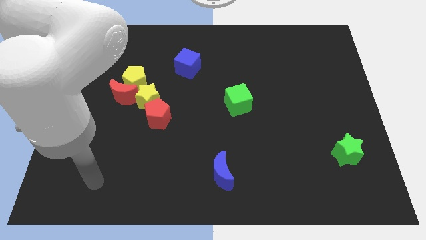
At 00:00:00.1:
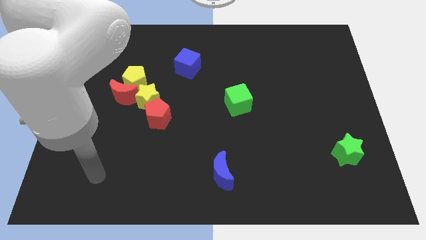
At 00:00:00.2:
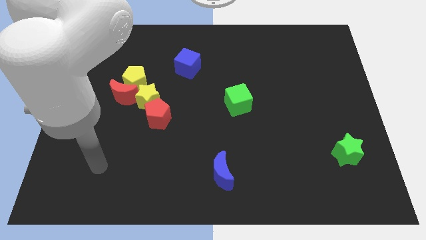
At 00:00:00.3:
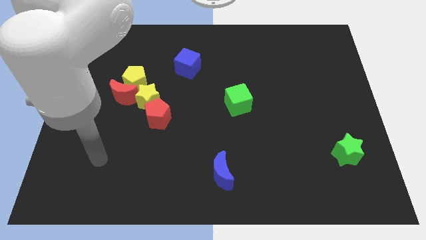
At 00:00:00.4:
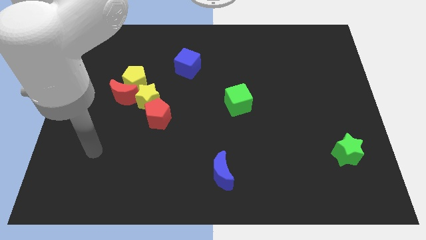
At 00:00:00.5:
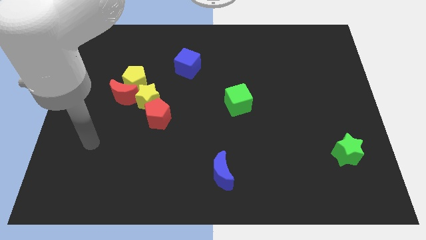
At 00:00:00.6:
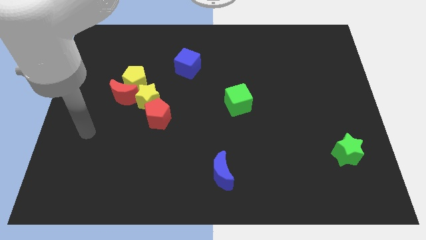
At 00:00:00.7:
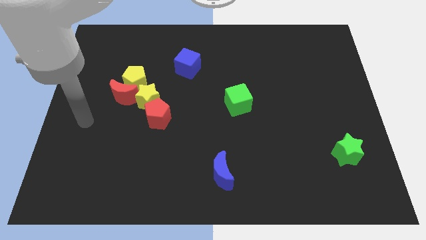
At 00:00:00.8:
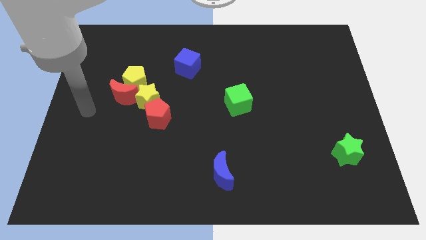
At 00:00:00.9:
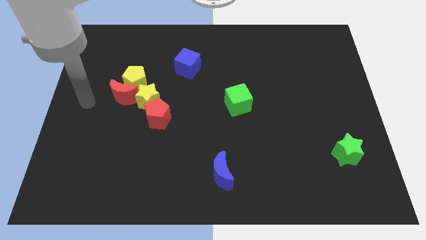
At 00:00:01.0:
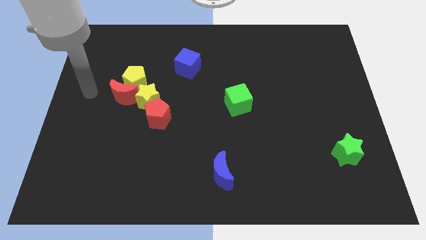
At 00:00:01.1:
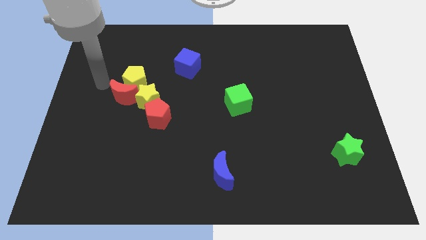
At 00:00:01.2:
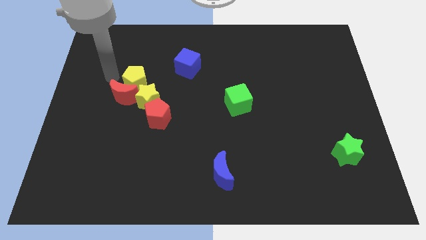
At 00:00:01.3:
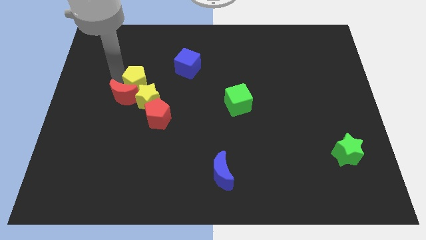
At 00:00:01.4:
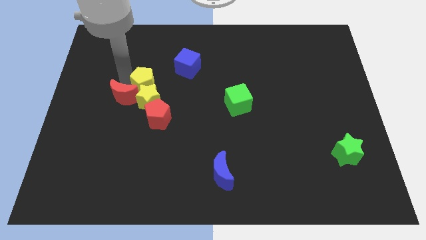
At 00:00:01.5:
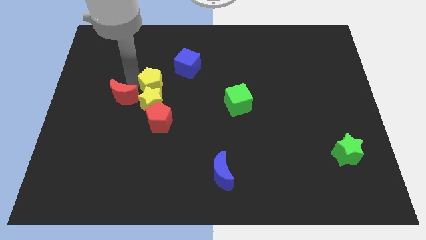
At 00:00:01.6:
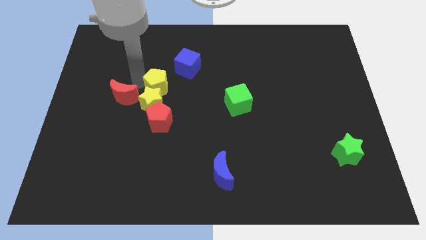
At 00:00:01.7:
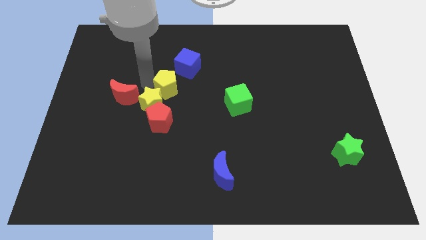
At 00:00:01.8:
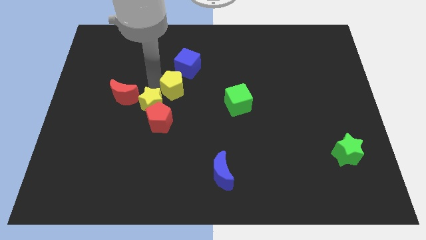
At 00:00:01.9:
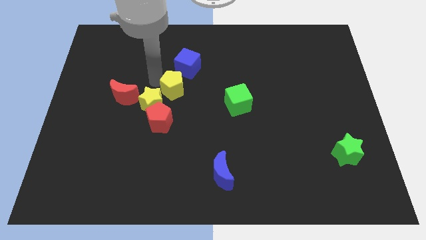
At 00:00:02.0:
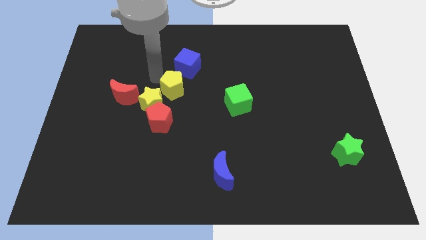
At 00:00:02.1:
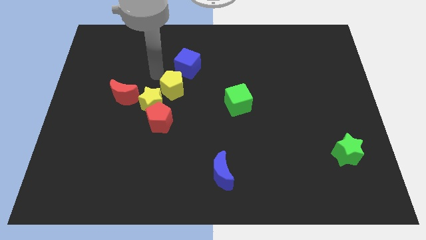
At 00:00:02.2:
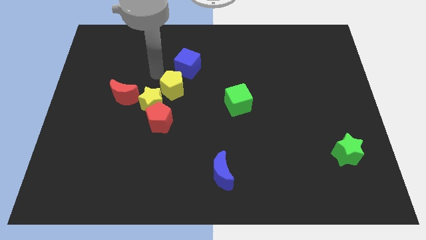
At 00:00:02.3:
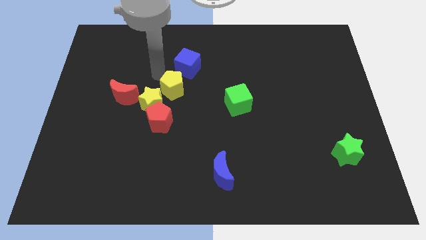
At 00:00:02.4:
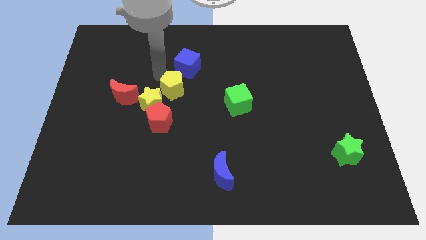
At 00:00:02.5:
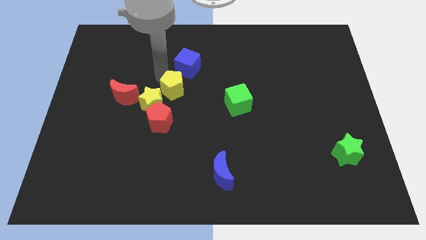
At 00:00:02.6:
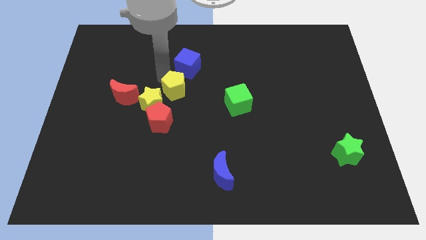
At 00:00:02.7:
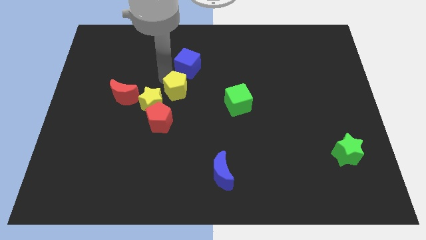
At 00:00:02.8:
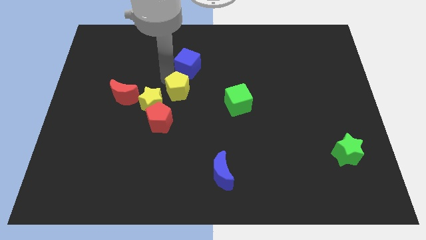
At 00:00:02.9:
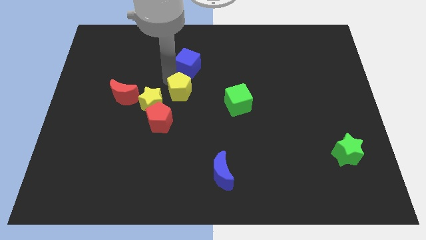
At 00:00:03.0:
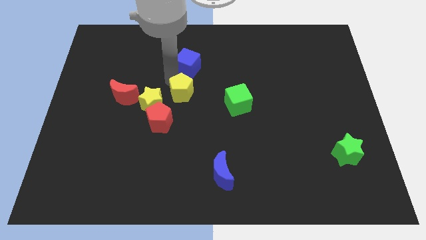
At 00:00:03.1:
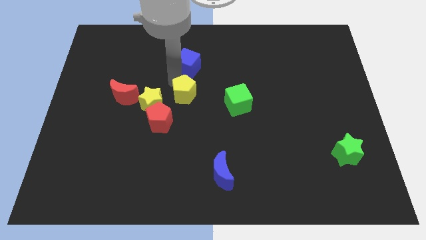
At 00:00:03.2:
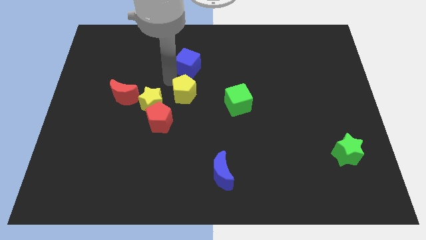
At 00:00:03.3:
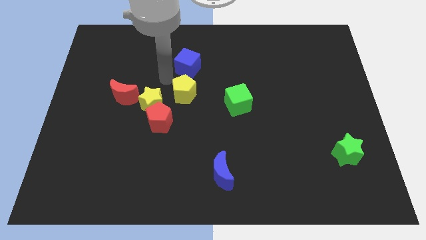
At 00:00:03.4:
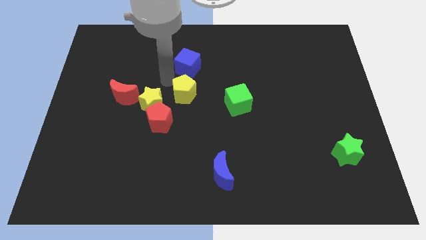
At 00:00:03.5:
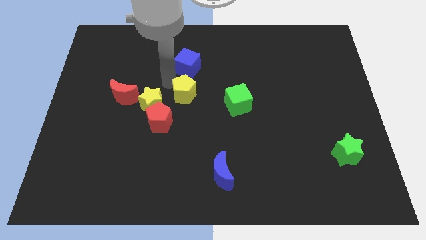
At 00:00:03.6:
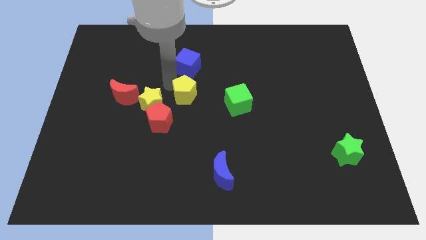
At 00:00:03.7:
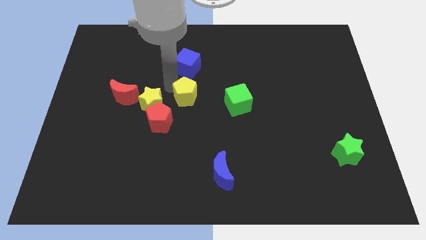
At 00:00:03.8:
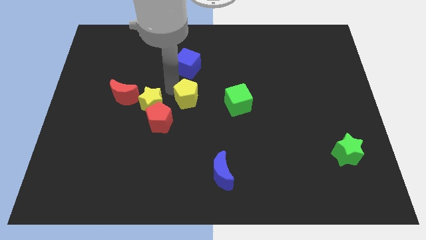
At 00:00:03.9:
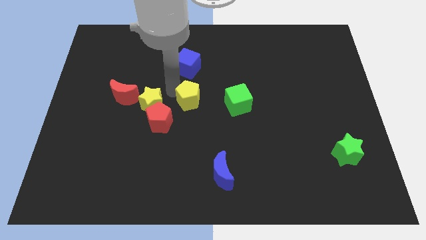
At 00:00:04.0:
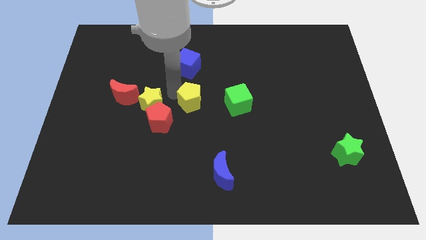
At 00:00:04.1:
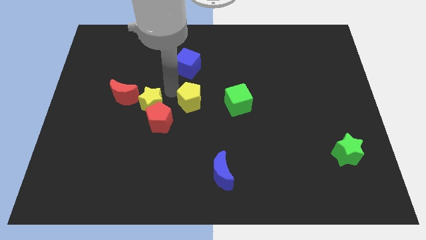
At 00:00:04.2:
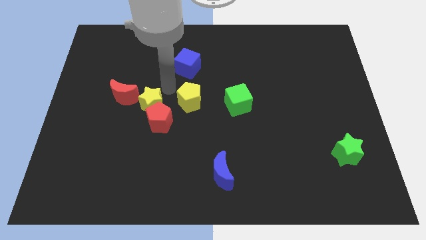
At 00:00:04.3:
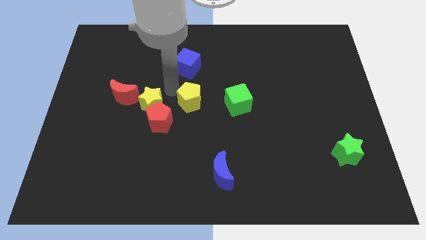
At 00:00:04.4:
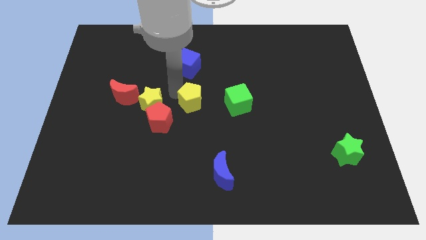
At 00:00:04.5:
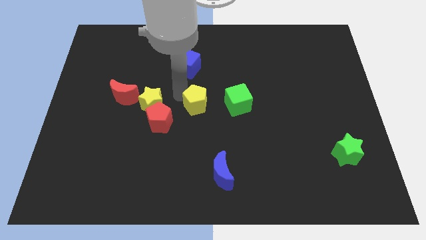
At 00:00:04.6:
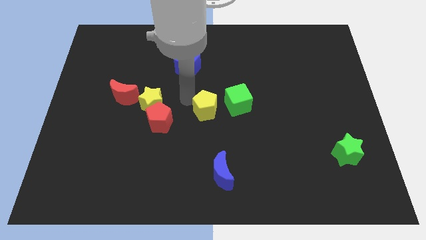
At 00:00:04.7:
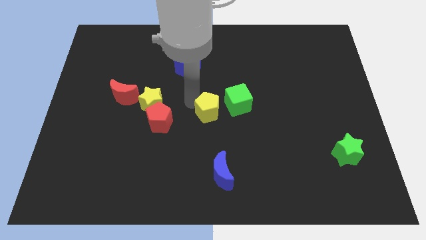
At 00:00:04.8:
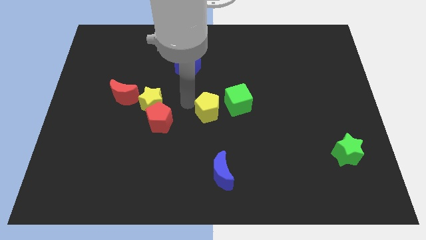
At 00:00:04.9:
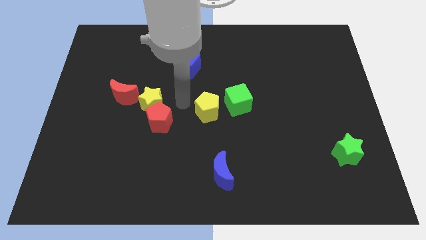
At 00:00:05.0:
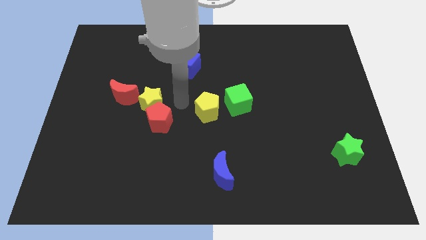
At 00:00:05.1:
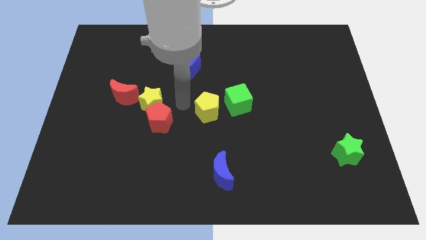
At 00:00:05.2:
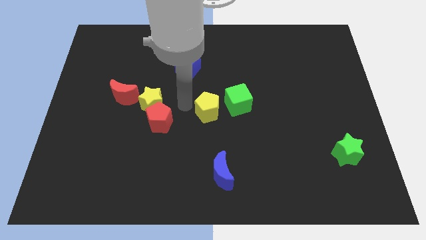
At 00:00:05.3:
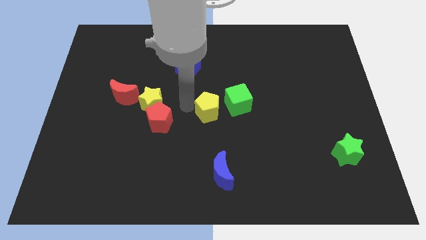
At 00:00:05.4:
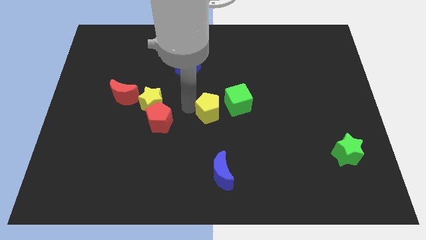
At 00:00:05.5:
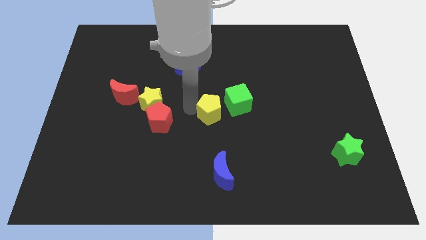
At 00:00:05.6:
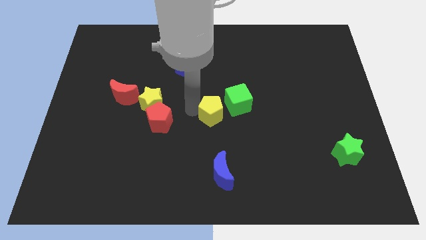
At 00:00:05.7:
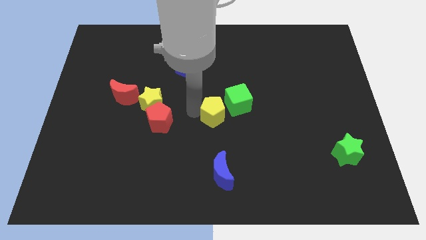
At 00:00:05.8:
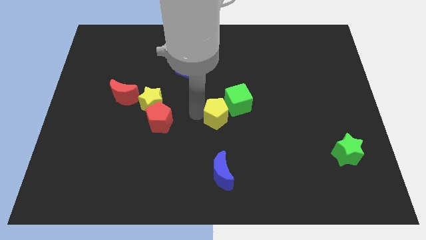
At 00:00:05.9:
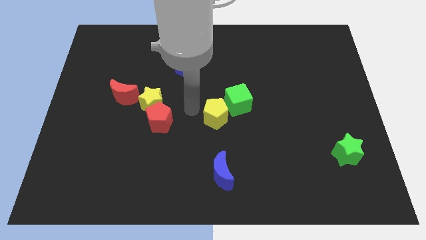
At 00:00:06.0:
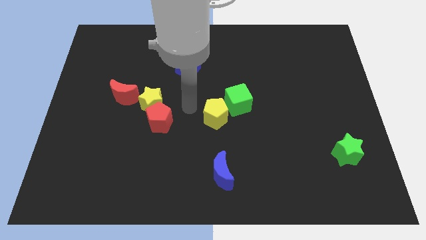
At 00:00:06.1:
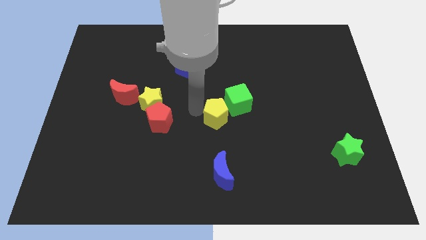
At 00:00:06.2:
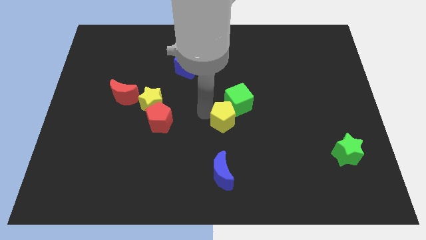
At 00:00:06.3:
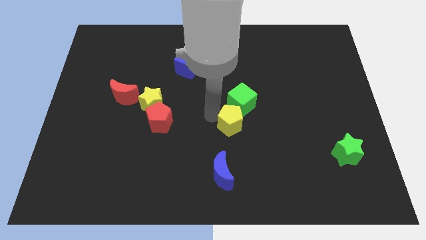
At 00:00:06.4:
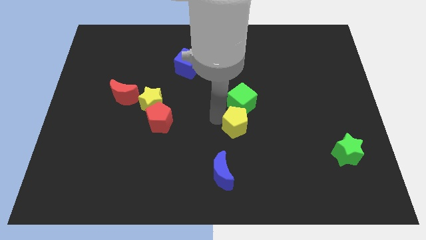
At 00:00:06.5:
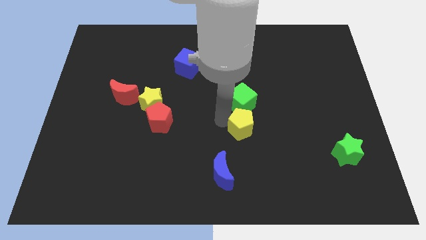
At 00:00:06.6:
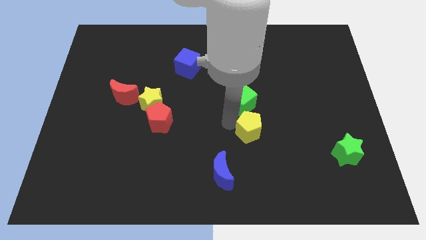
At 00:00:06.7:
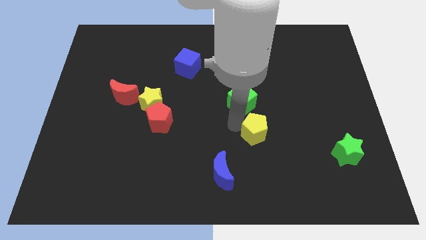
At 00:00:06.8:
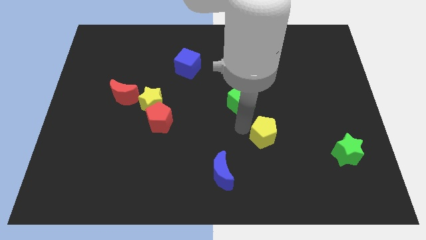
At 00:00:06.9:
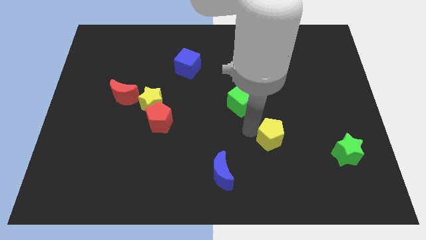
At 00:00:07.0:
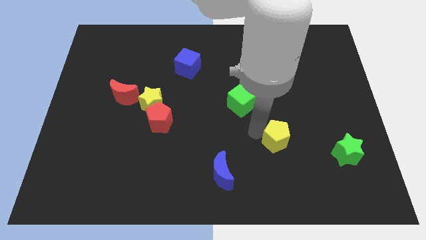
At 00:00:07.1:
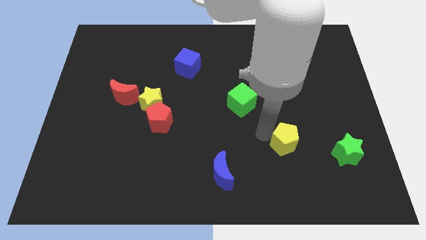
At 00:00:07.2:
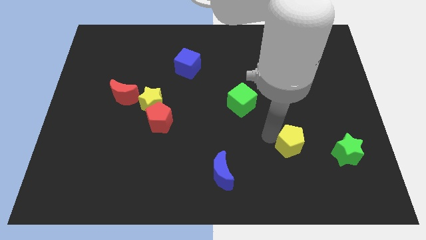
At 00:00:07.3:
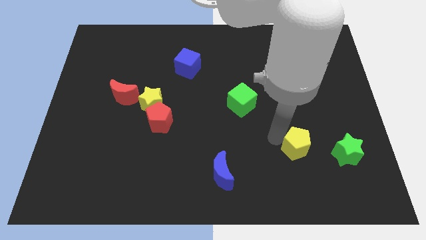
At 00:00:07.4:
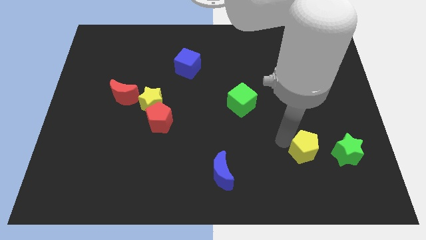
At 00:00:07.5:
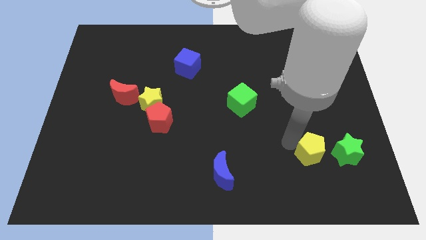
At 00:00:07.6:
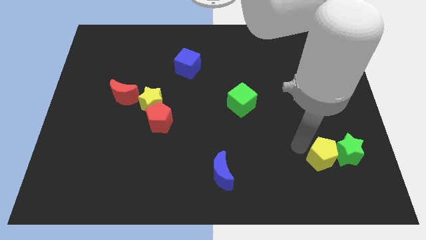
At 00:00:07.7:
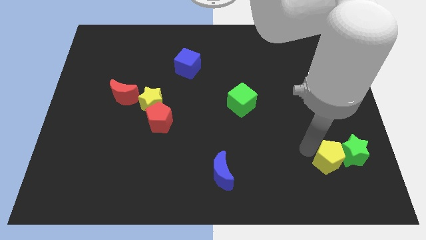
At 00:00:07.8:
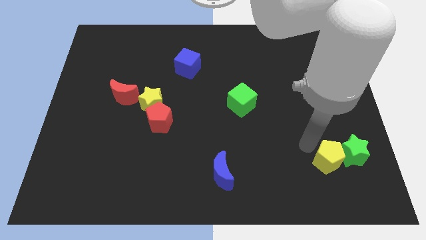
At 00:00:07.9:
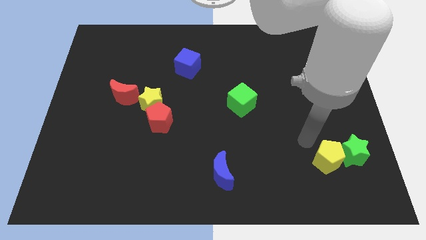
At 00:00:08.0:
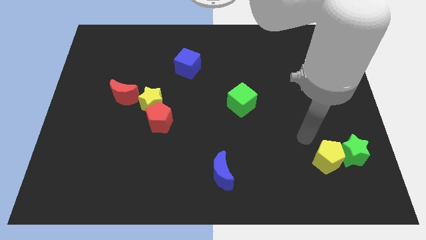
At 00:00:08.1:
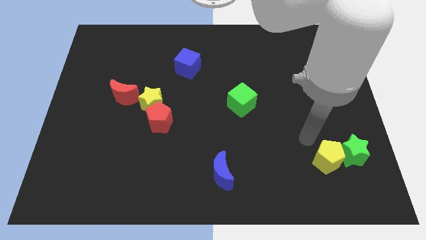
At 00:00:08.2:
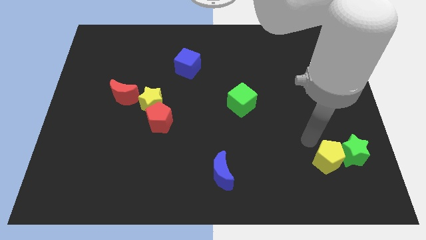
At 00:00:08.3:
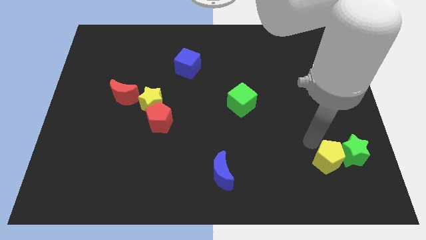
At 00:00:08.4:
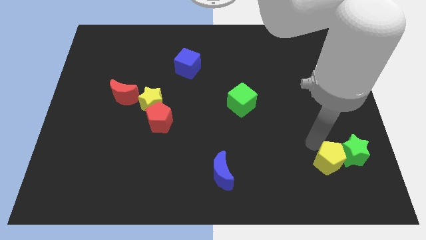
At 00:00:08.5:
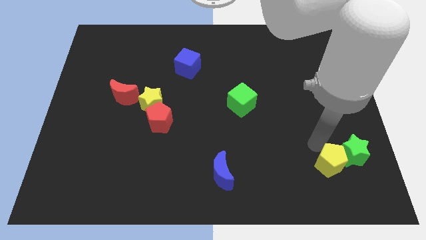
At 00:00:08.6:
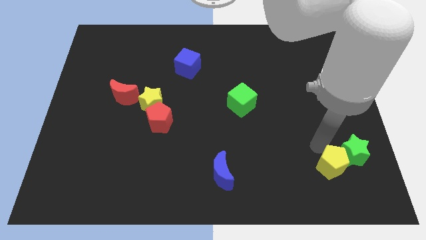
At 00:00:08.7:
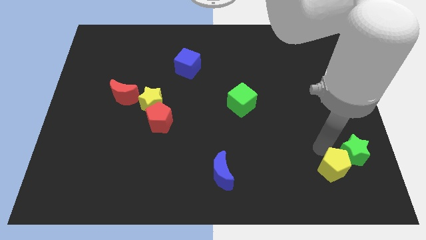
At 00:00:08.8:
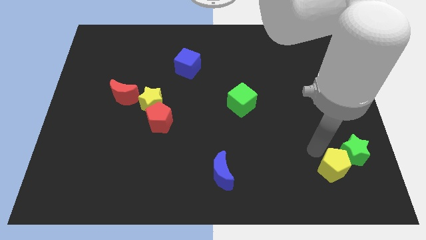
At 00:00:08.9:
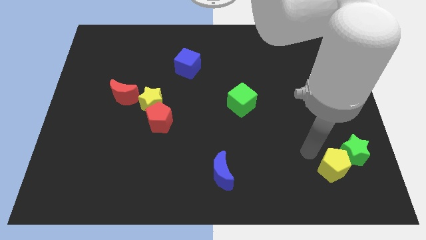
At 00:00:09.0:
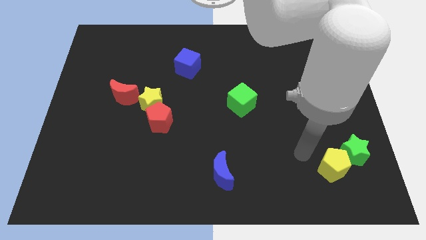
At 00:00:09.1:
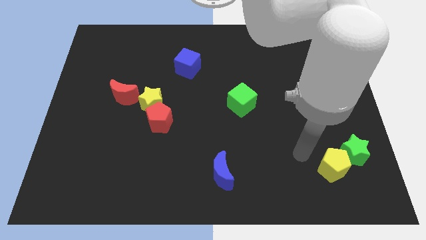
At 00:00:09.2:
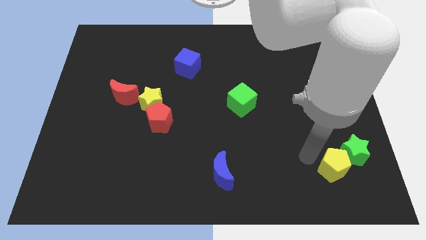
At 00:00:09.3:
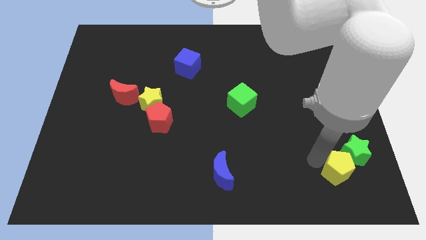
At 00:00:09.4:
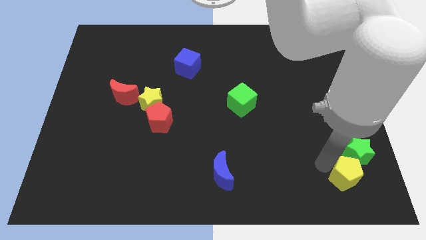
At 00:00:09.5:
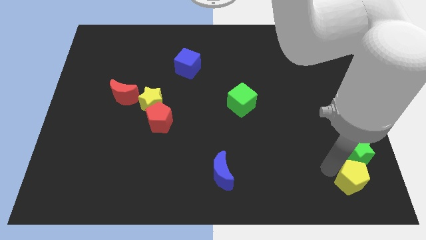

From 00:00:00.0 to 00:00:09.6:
slide the yellow pentagon to the lower right corner
